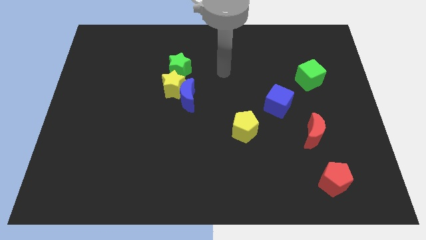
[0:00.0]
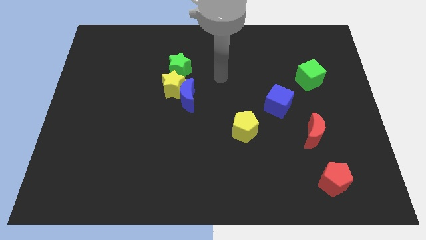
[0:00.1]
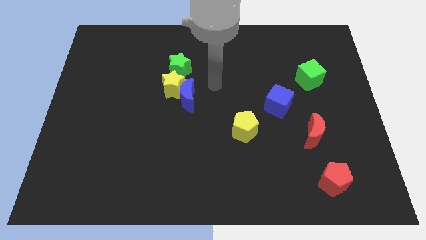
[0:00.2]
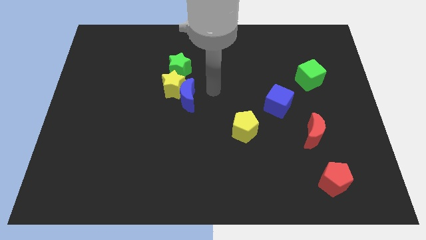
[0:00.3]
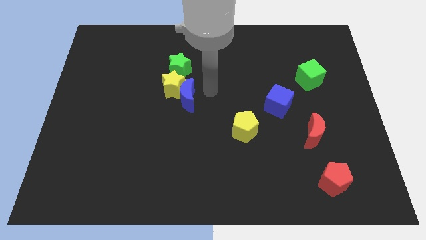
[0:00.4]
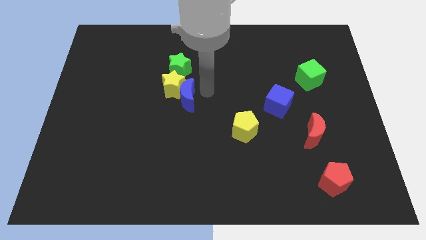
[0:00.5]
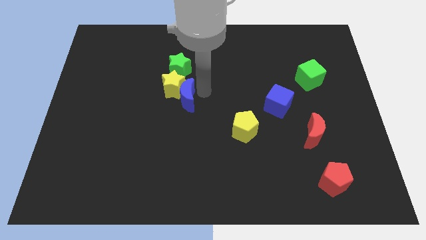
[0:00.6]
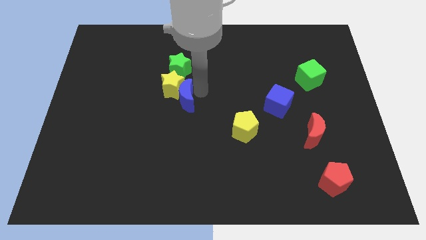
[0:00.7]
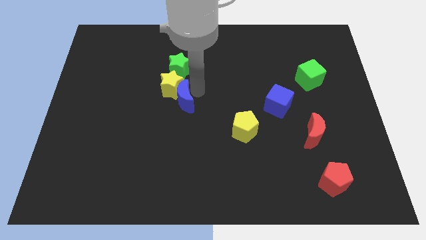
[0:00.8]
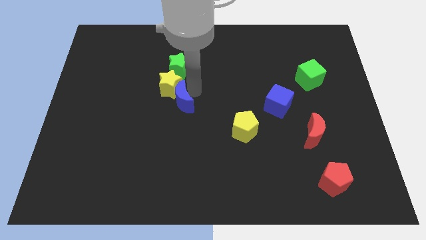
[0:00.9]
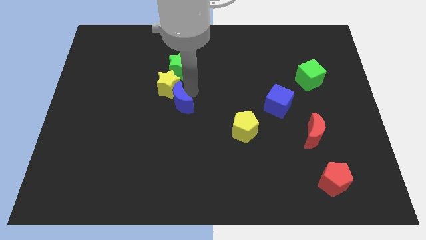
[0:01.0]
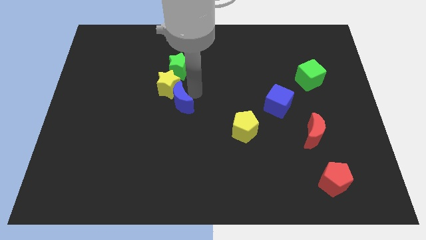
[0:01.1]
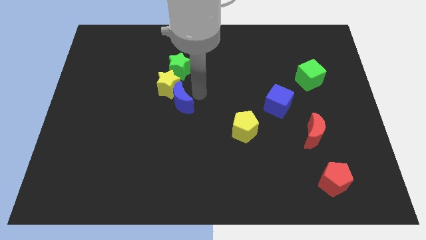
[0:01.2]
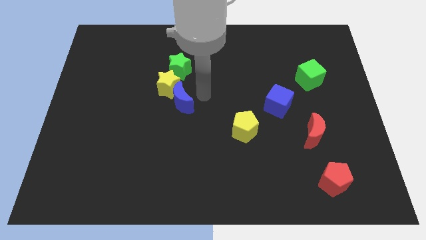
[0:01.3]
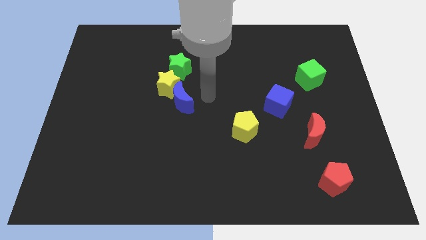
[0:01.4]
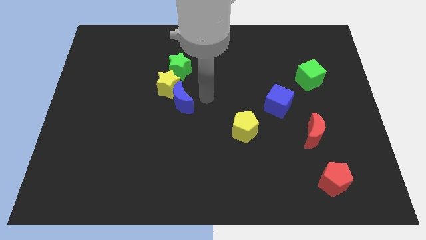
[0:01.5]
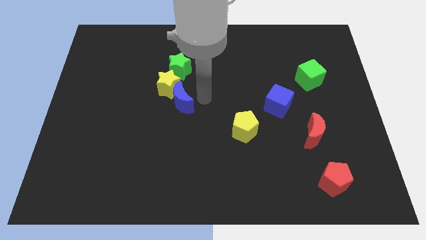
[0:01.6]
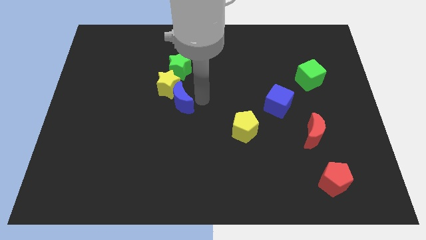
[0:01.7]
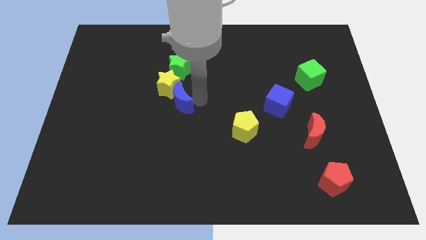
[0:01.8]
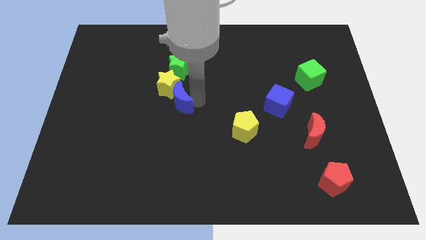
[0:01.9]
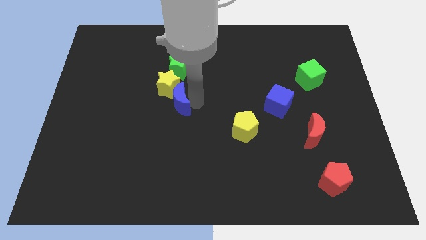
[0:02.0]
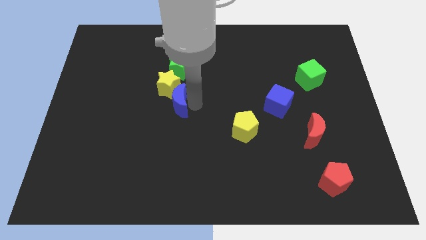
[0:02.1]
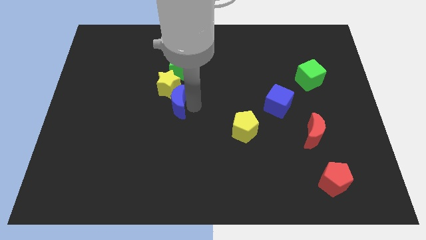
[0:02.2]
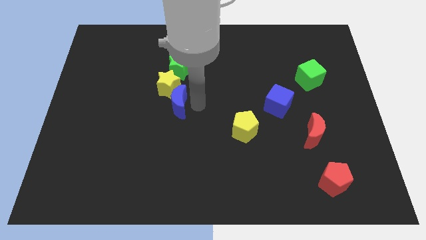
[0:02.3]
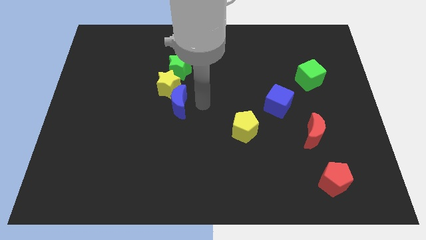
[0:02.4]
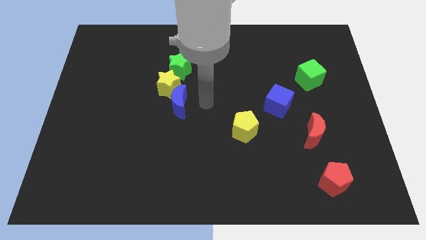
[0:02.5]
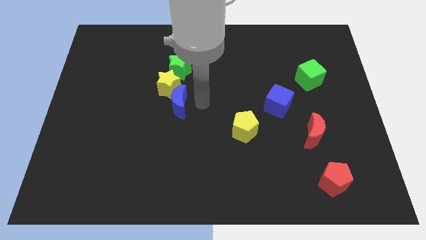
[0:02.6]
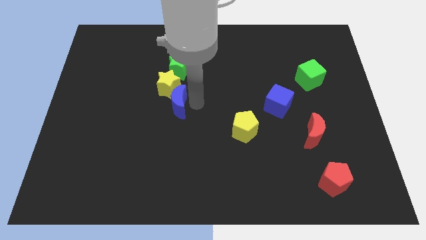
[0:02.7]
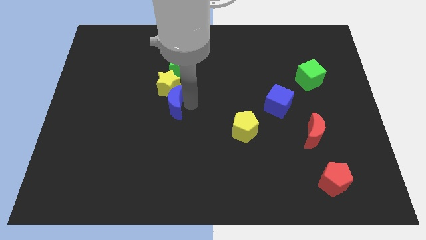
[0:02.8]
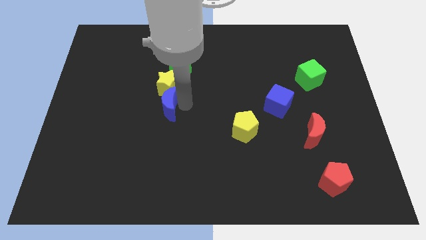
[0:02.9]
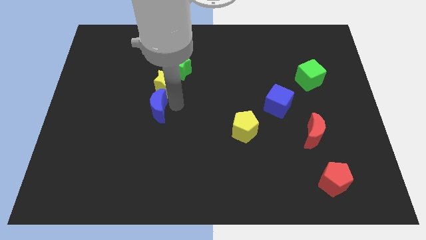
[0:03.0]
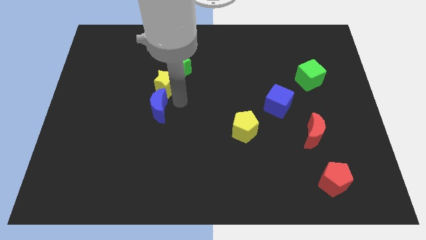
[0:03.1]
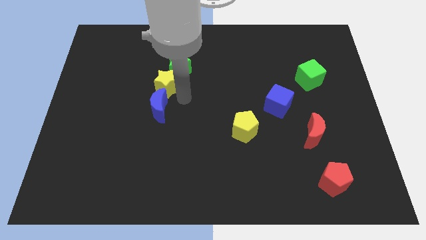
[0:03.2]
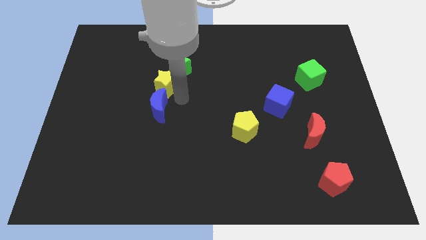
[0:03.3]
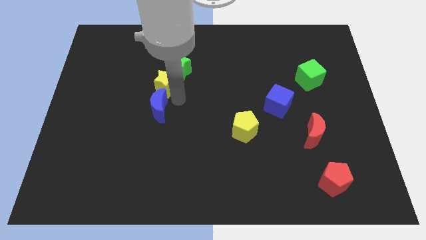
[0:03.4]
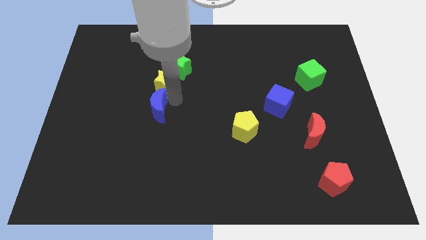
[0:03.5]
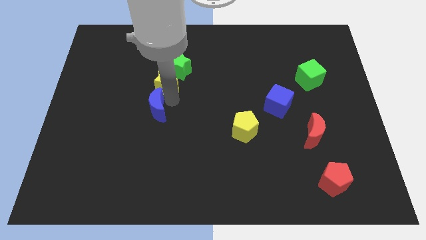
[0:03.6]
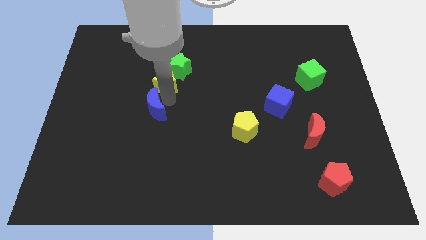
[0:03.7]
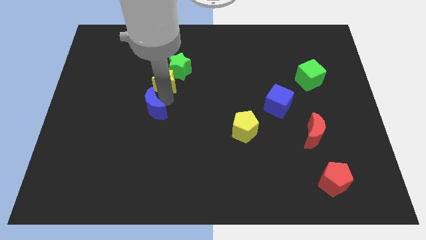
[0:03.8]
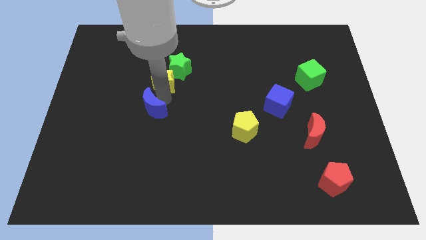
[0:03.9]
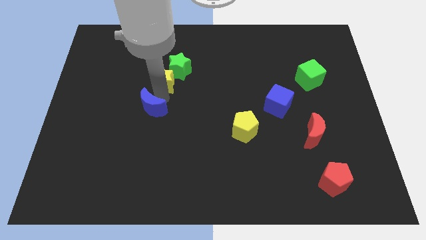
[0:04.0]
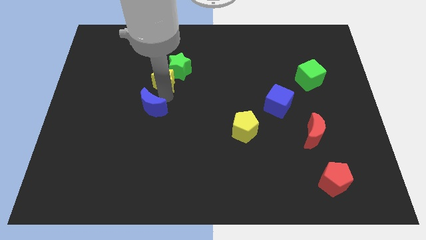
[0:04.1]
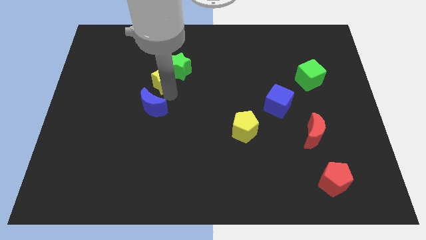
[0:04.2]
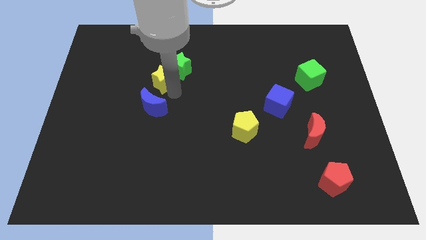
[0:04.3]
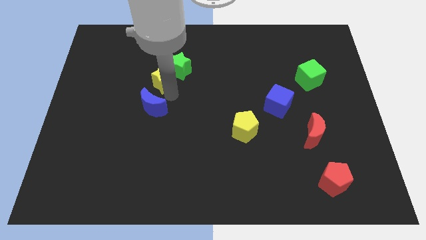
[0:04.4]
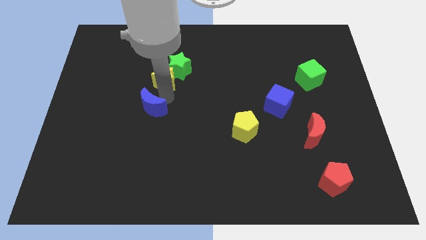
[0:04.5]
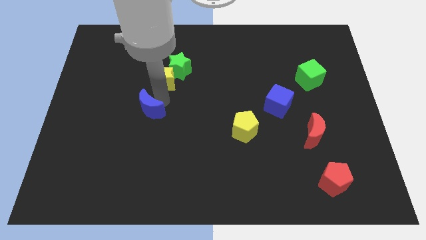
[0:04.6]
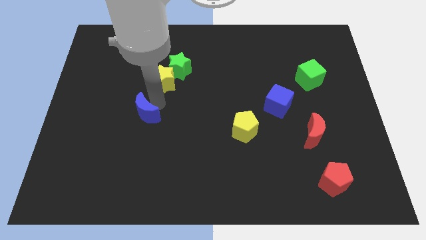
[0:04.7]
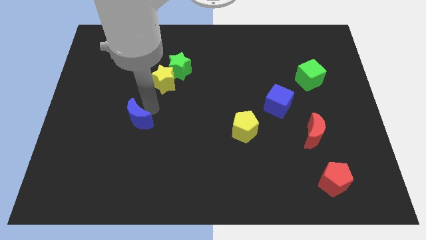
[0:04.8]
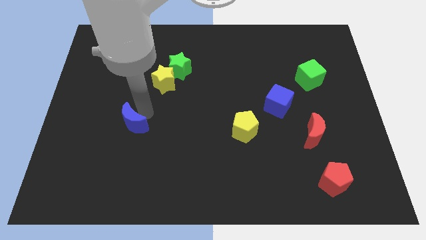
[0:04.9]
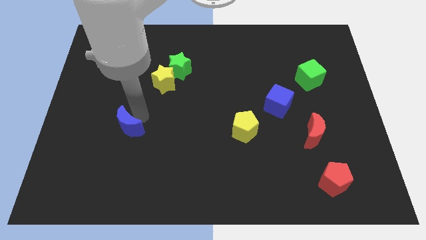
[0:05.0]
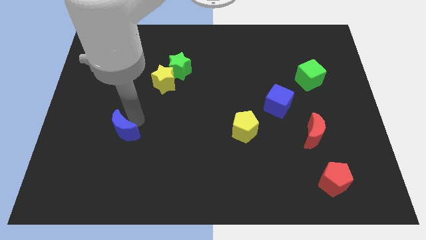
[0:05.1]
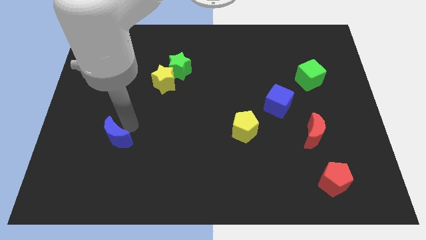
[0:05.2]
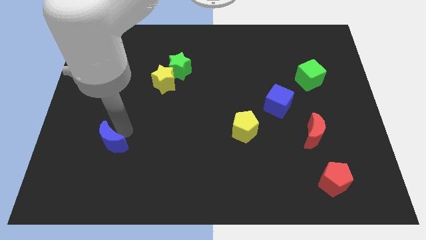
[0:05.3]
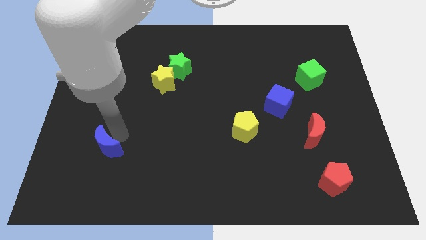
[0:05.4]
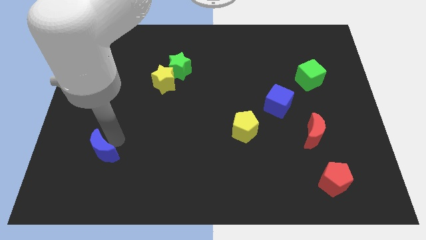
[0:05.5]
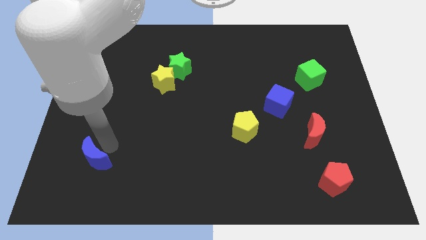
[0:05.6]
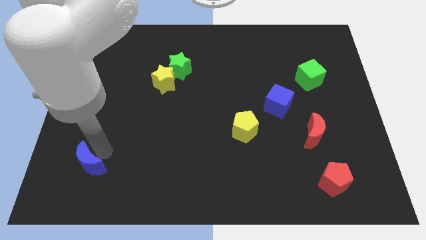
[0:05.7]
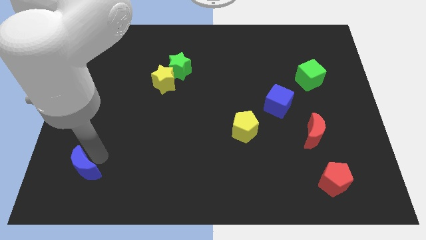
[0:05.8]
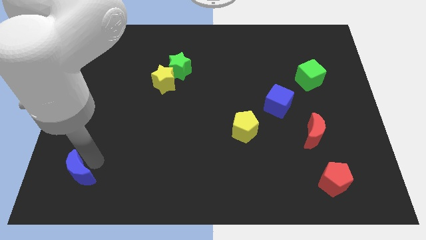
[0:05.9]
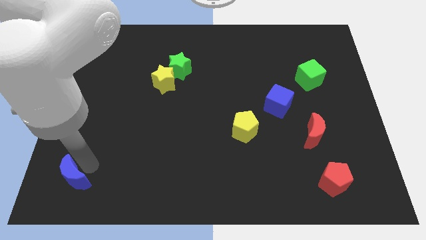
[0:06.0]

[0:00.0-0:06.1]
slide the blue moon to the lower left corner
